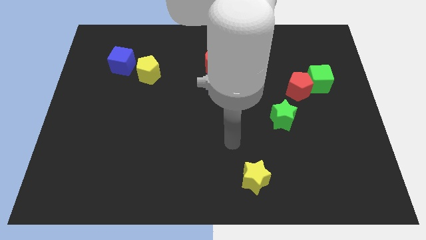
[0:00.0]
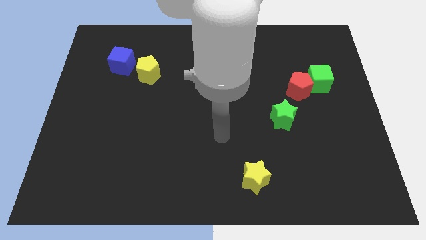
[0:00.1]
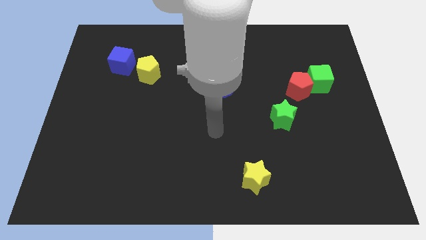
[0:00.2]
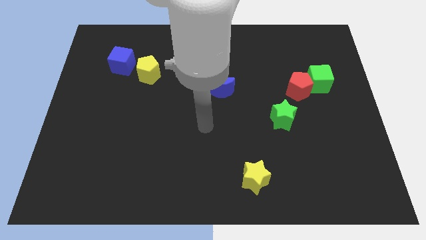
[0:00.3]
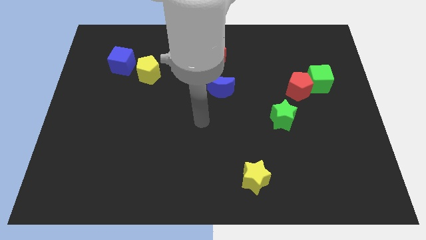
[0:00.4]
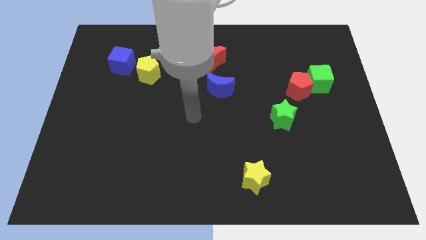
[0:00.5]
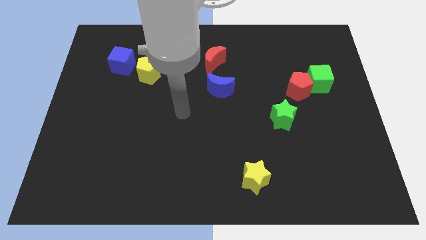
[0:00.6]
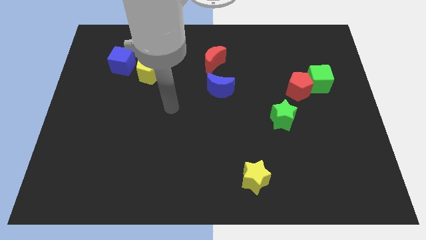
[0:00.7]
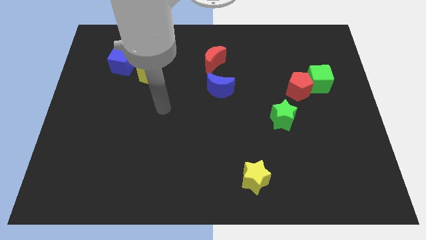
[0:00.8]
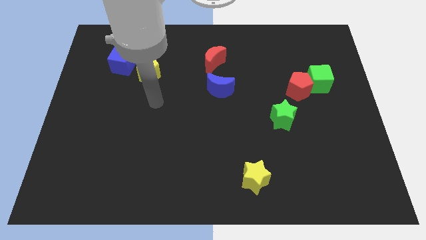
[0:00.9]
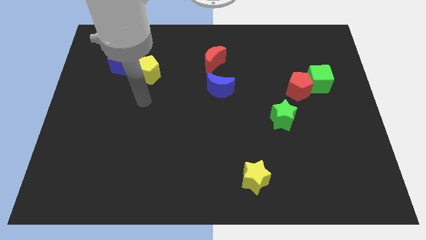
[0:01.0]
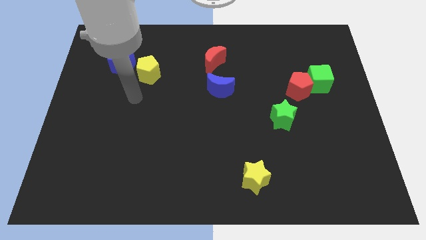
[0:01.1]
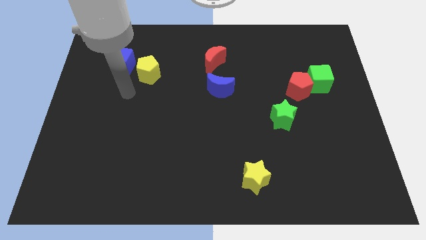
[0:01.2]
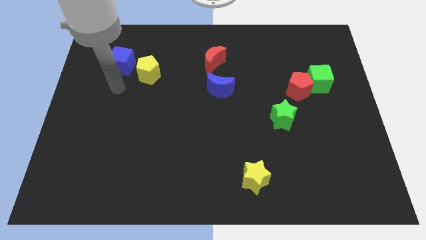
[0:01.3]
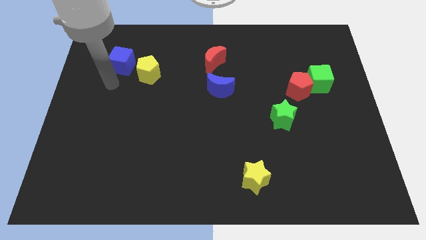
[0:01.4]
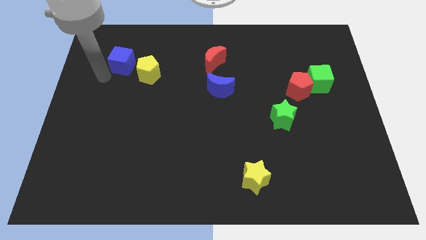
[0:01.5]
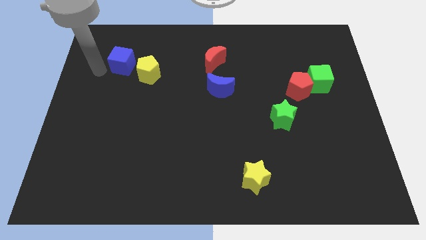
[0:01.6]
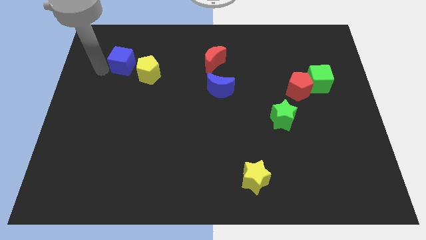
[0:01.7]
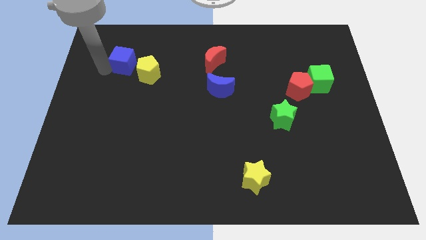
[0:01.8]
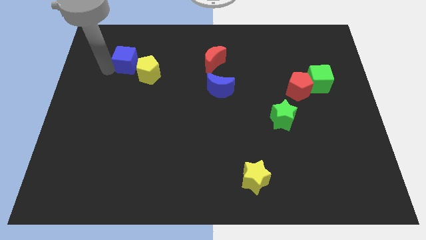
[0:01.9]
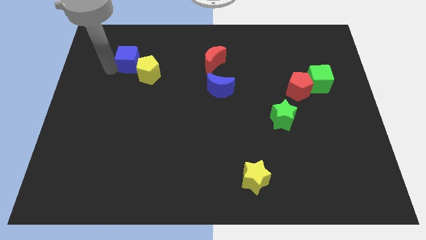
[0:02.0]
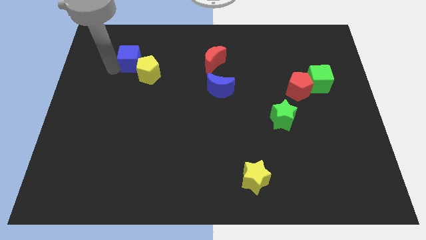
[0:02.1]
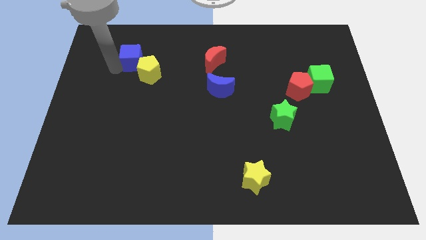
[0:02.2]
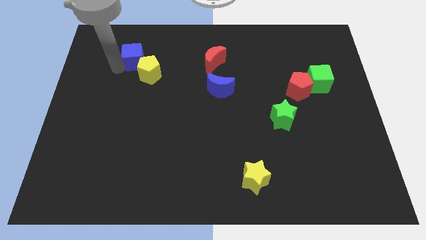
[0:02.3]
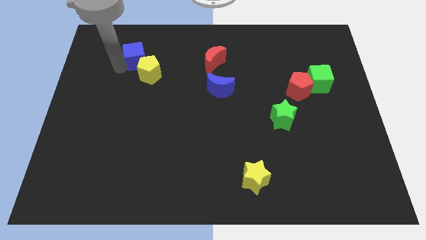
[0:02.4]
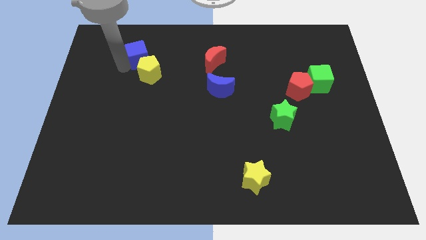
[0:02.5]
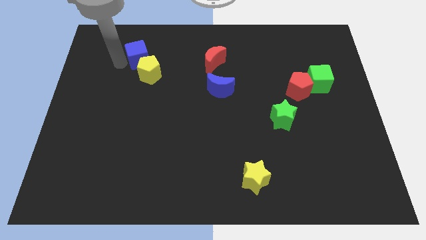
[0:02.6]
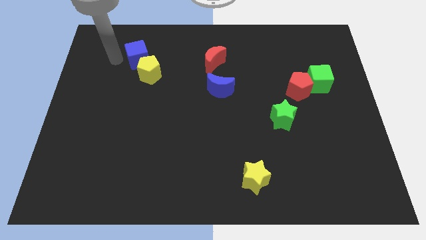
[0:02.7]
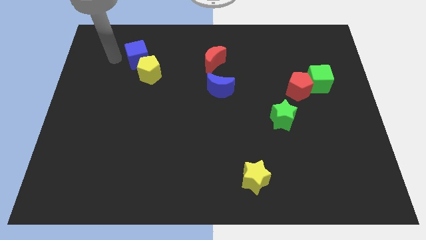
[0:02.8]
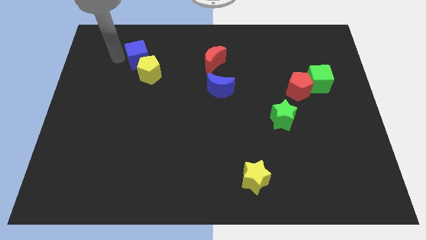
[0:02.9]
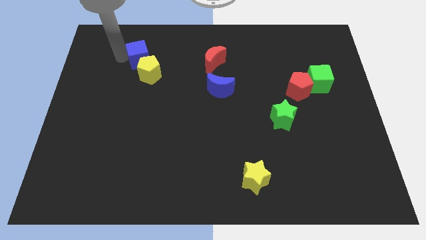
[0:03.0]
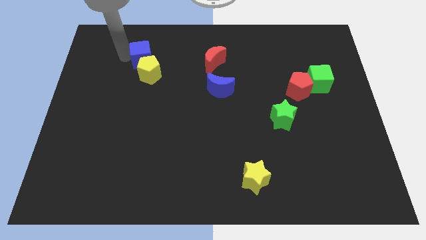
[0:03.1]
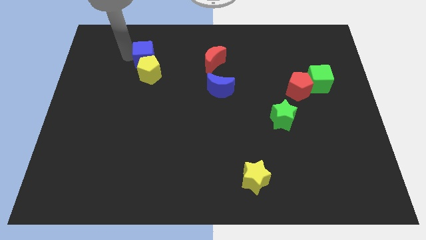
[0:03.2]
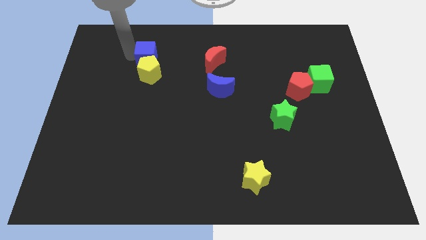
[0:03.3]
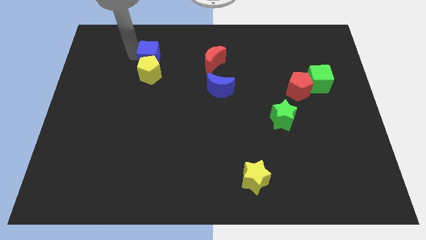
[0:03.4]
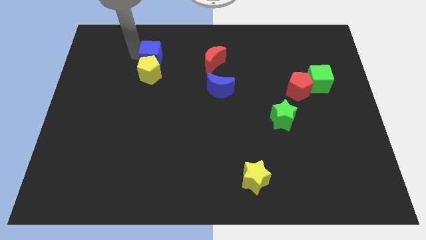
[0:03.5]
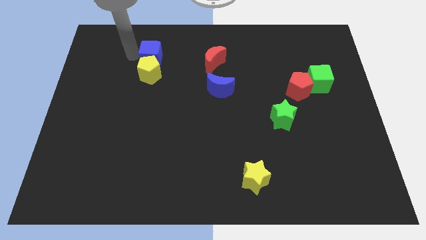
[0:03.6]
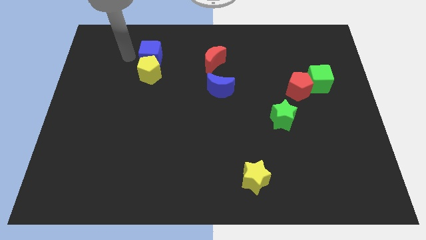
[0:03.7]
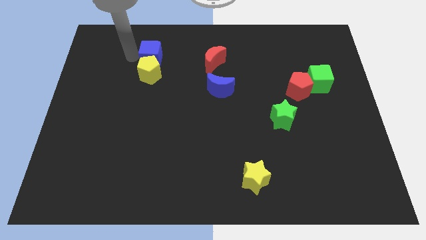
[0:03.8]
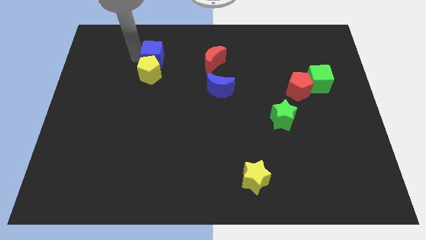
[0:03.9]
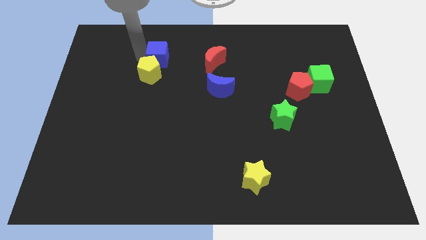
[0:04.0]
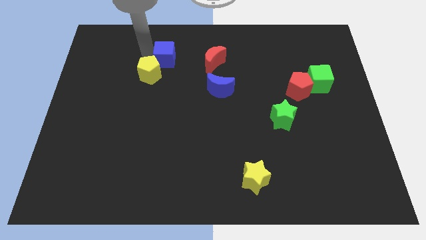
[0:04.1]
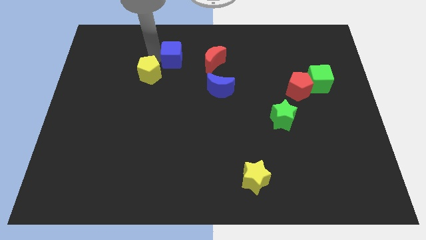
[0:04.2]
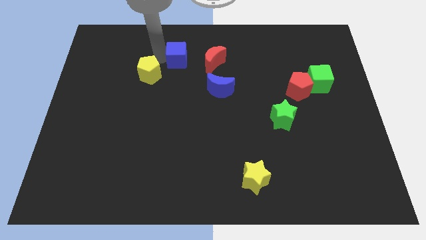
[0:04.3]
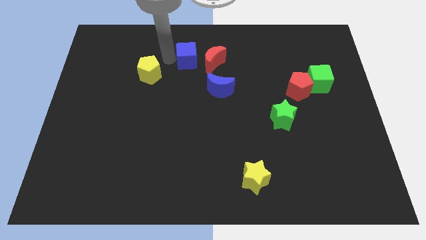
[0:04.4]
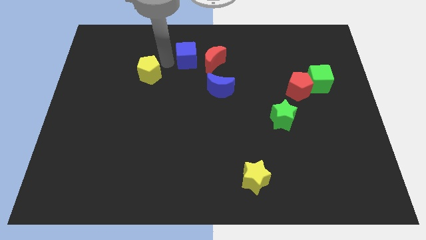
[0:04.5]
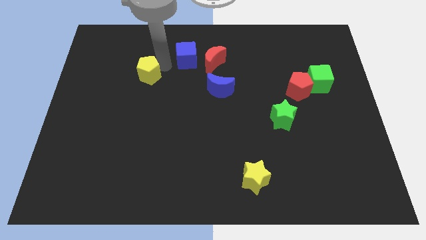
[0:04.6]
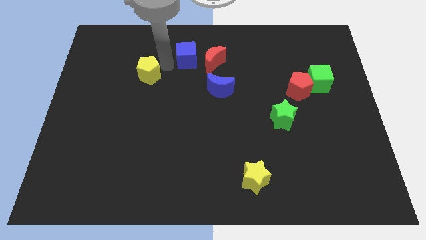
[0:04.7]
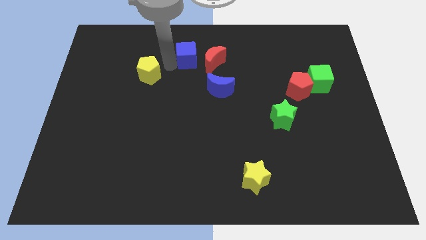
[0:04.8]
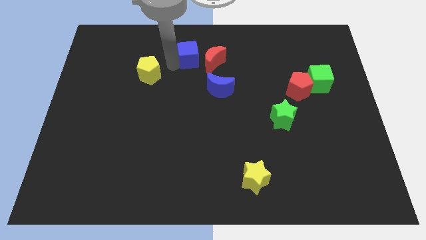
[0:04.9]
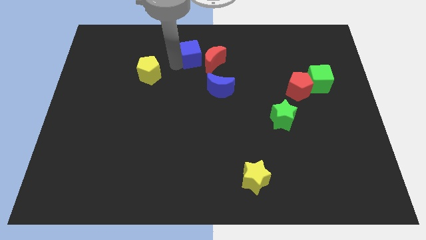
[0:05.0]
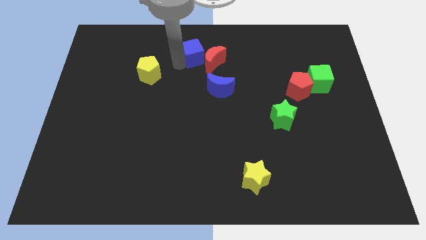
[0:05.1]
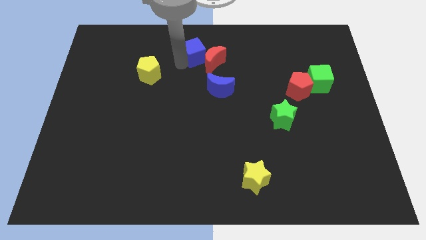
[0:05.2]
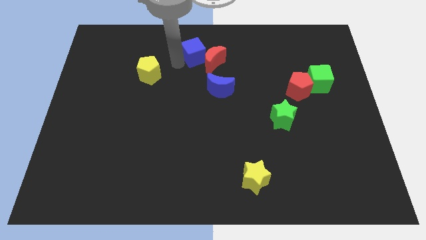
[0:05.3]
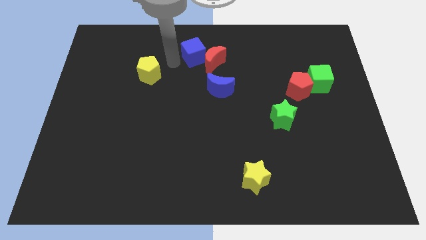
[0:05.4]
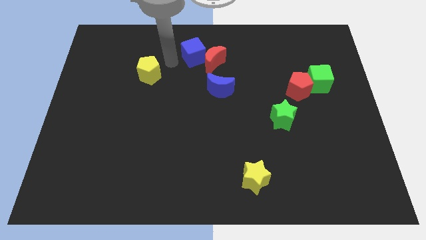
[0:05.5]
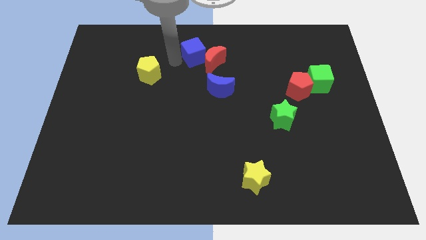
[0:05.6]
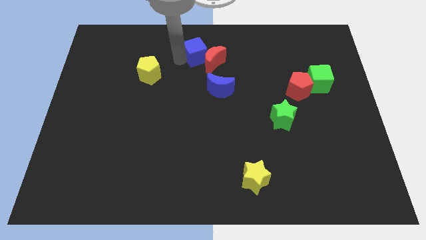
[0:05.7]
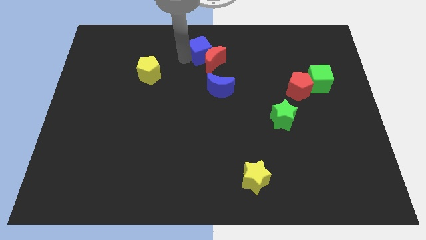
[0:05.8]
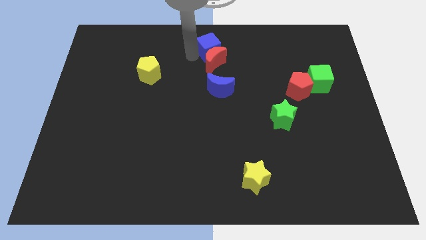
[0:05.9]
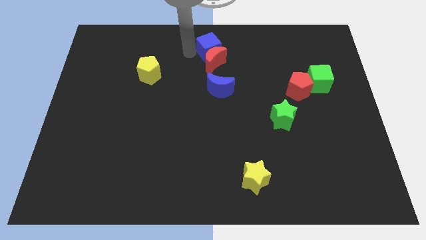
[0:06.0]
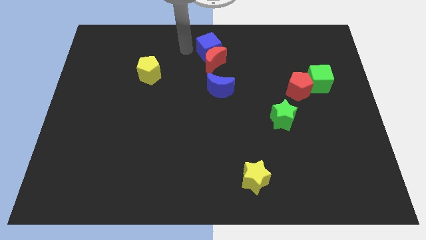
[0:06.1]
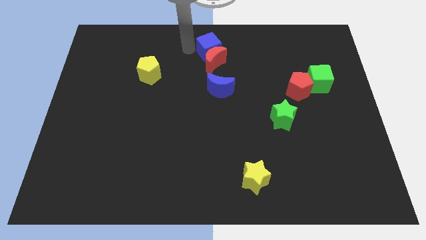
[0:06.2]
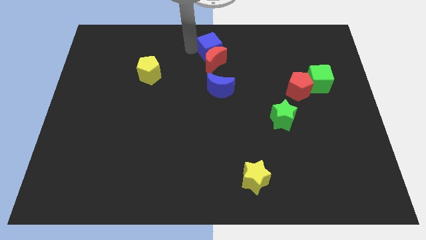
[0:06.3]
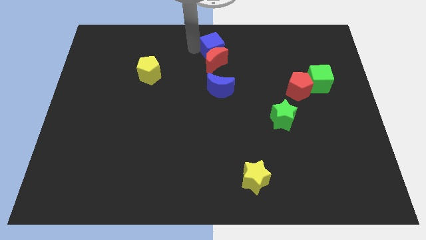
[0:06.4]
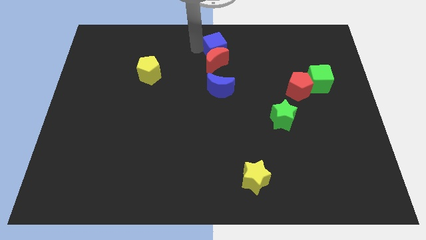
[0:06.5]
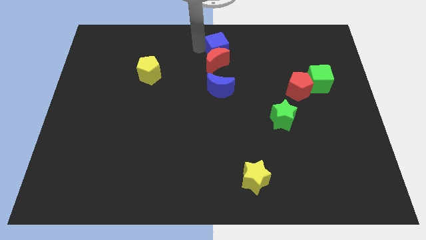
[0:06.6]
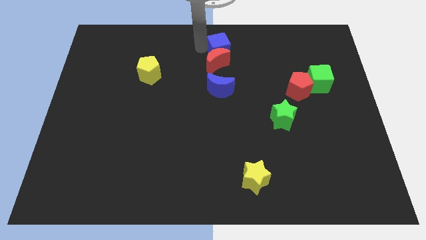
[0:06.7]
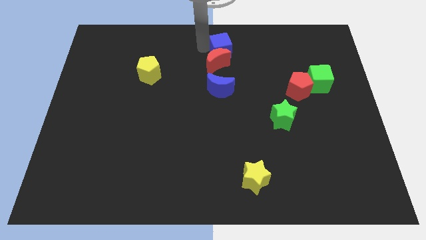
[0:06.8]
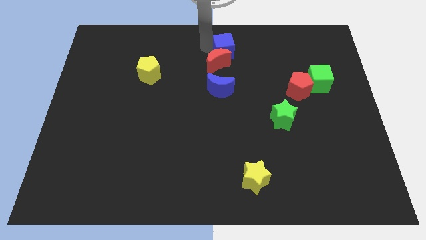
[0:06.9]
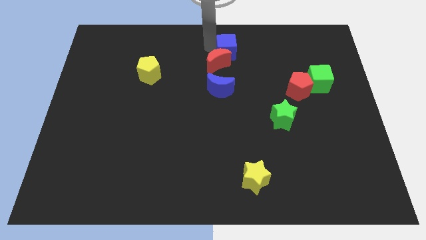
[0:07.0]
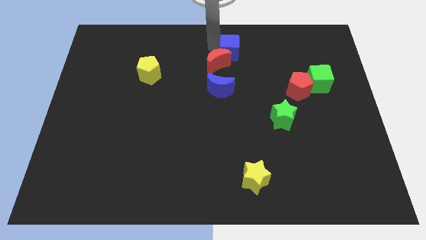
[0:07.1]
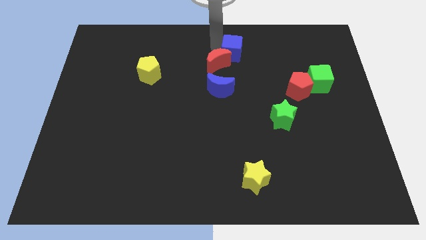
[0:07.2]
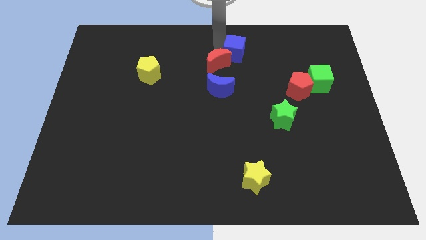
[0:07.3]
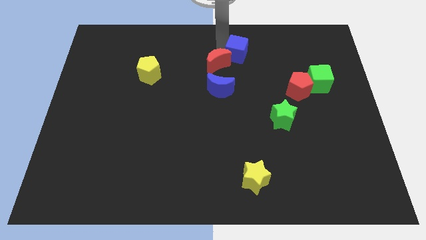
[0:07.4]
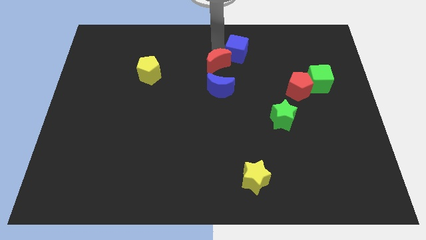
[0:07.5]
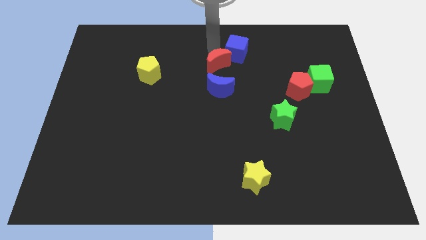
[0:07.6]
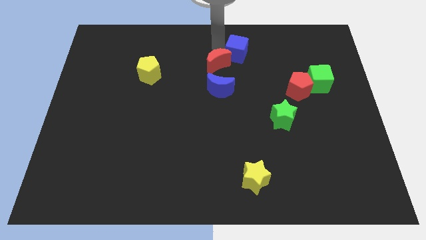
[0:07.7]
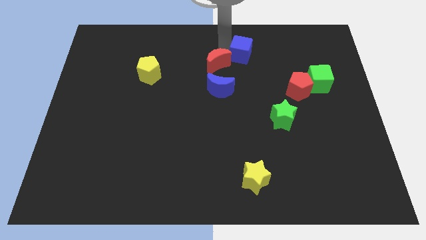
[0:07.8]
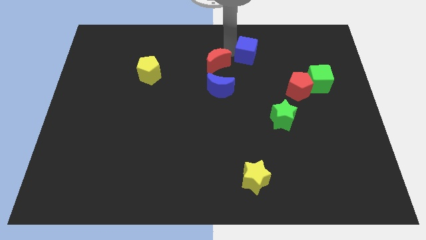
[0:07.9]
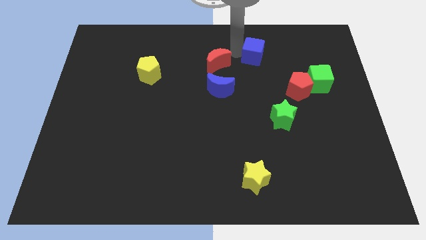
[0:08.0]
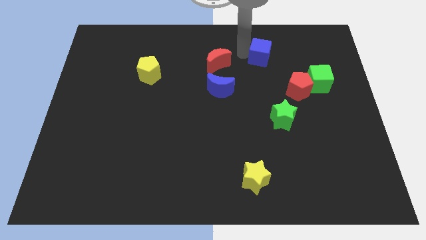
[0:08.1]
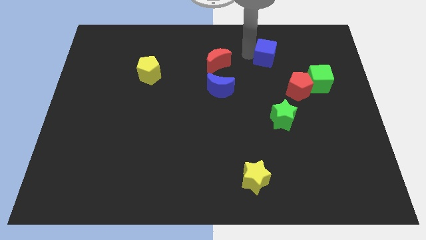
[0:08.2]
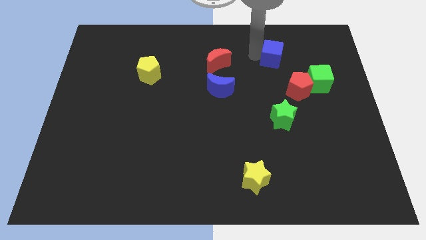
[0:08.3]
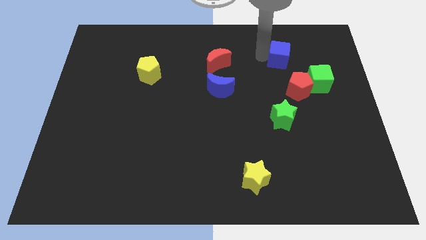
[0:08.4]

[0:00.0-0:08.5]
move the blue cube to the top side of the red pentagon
